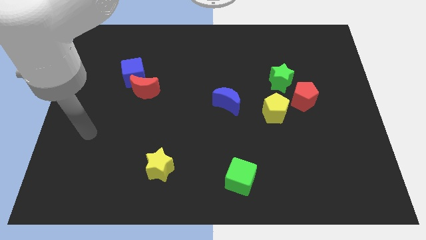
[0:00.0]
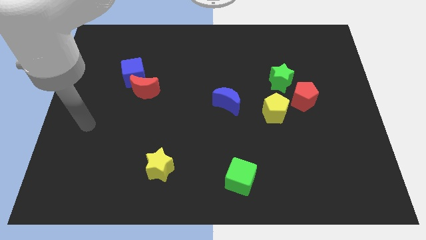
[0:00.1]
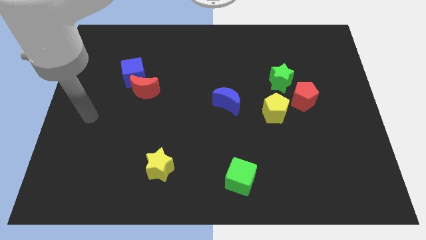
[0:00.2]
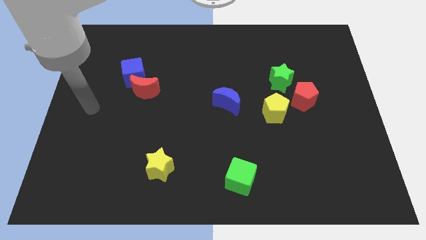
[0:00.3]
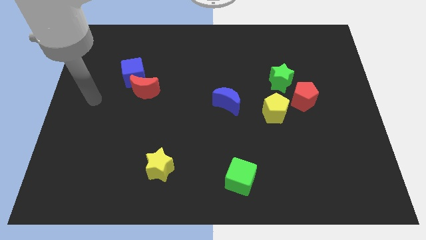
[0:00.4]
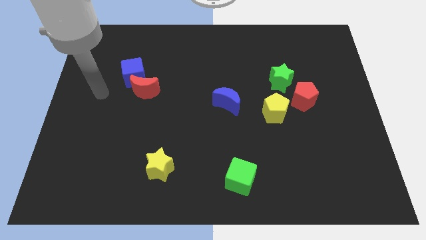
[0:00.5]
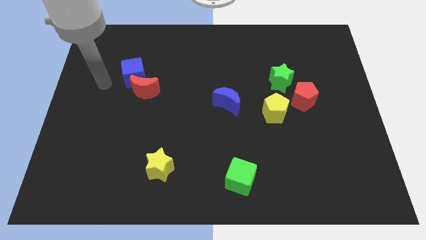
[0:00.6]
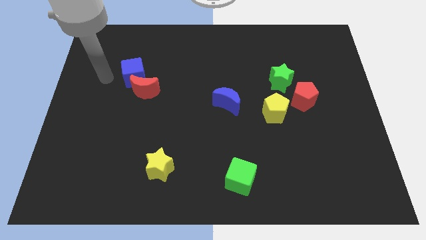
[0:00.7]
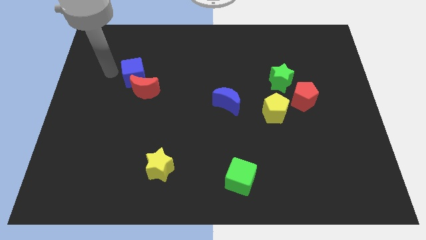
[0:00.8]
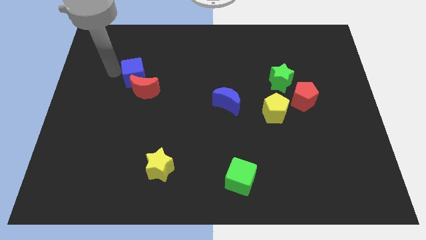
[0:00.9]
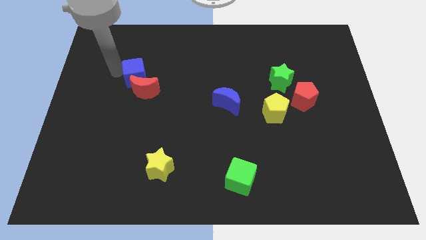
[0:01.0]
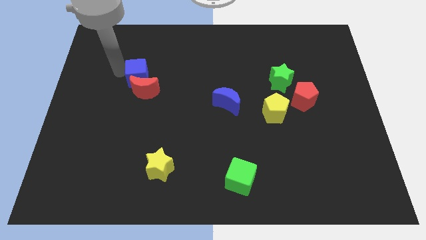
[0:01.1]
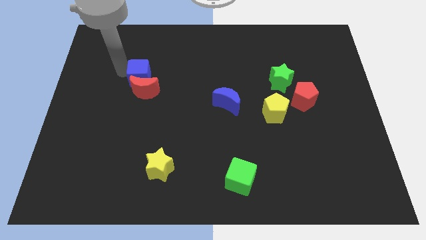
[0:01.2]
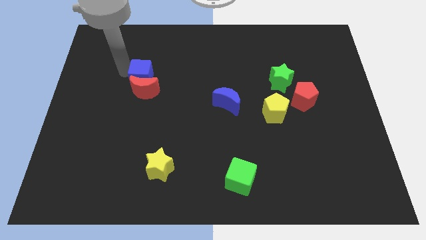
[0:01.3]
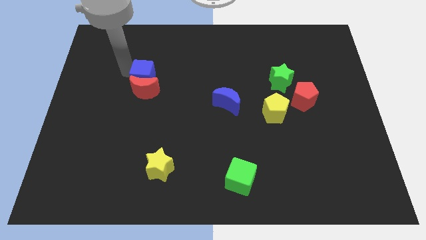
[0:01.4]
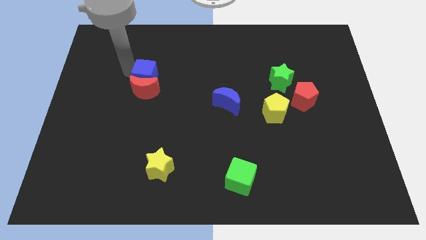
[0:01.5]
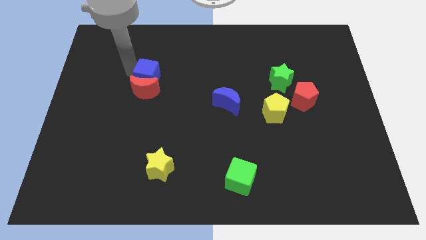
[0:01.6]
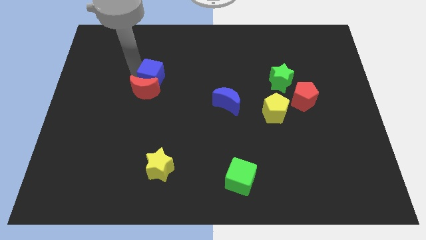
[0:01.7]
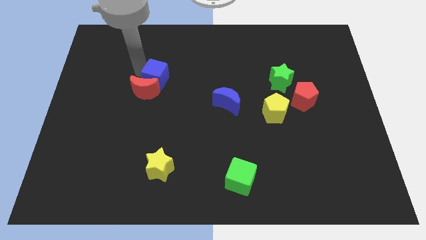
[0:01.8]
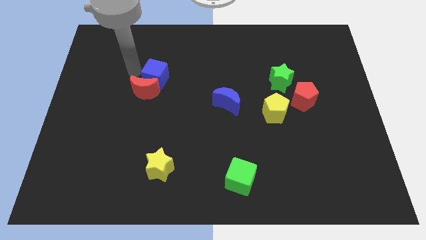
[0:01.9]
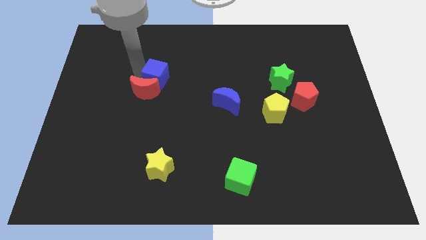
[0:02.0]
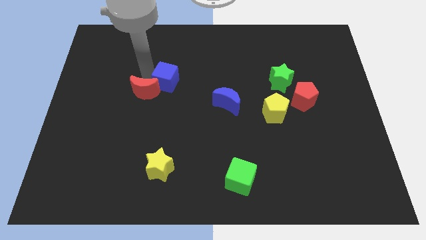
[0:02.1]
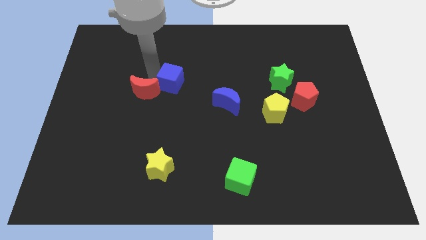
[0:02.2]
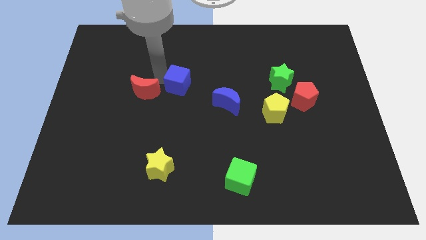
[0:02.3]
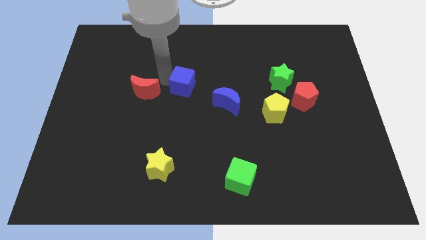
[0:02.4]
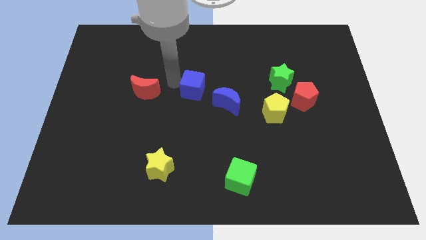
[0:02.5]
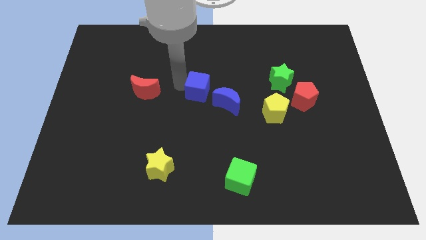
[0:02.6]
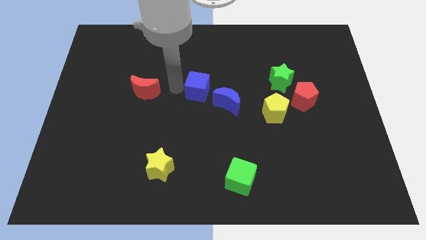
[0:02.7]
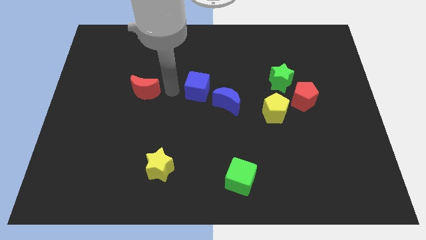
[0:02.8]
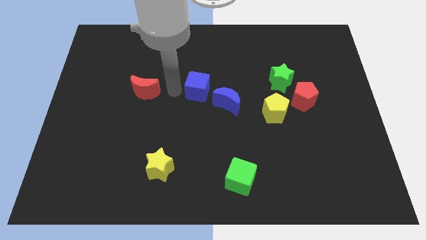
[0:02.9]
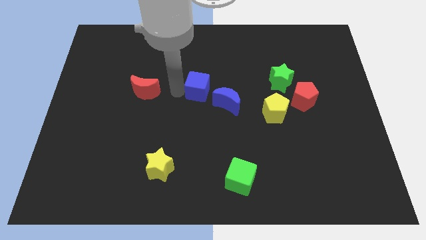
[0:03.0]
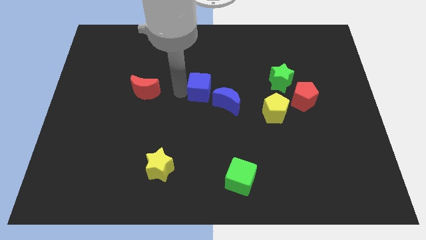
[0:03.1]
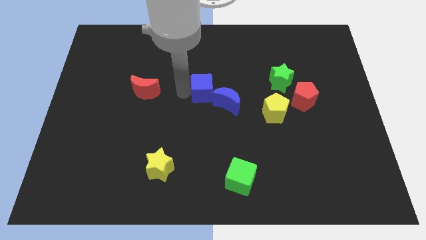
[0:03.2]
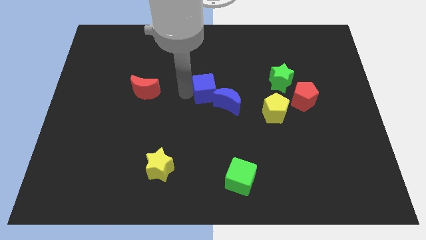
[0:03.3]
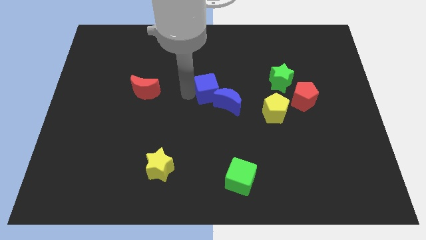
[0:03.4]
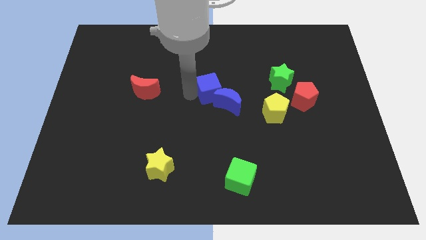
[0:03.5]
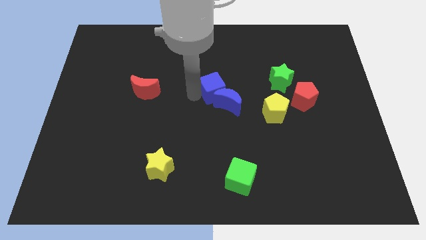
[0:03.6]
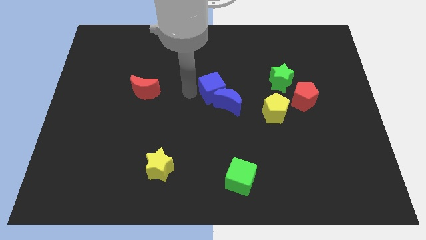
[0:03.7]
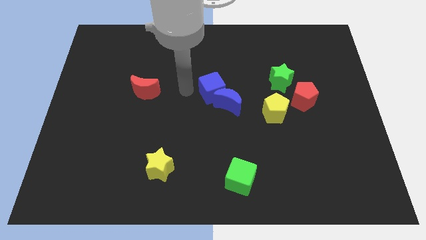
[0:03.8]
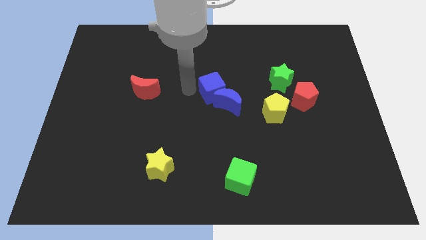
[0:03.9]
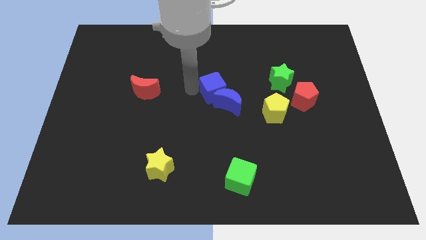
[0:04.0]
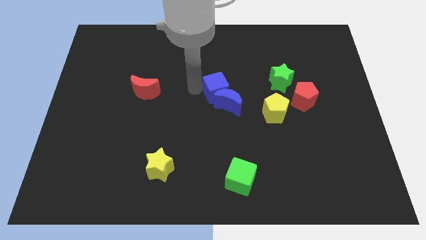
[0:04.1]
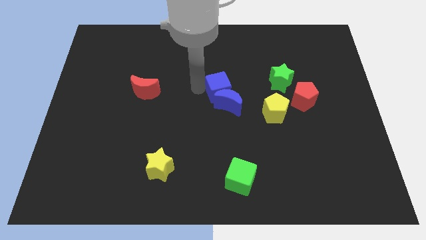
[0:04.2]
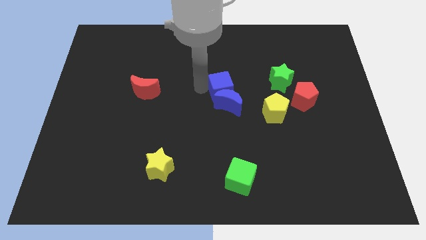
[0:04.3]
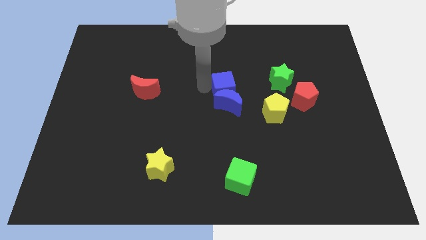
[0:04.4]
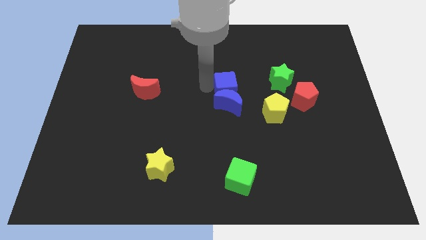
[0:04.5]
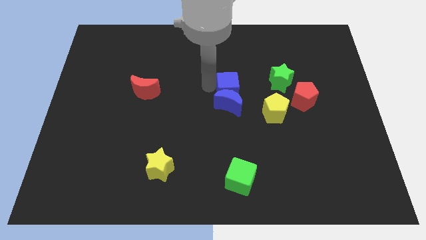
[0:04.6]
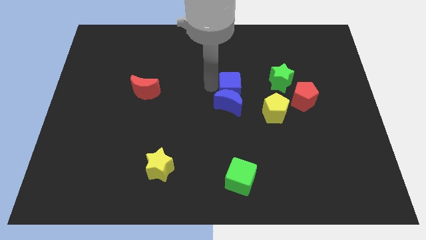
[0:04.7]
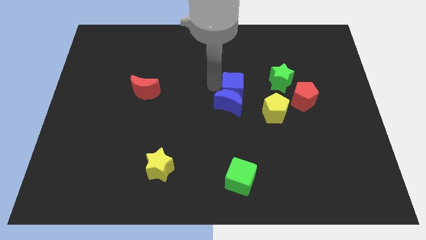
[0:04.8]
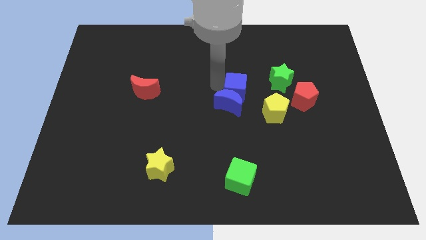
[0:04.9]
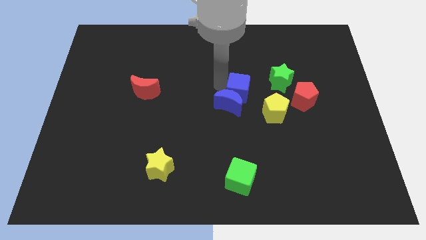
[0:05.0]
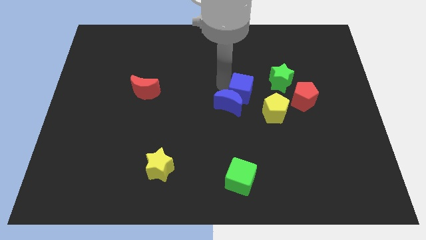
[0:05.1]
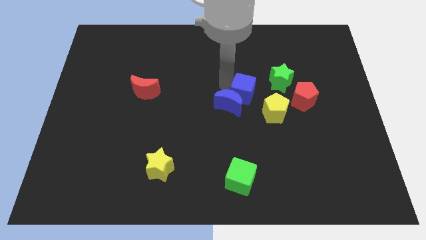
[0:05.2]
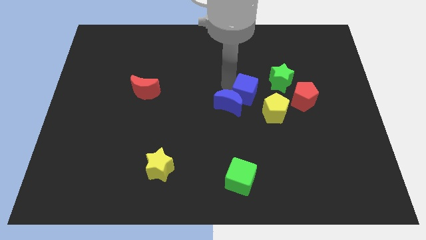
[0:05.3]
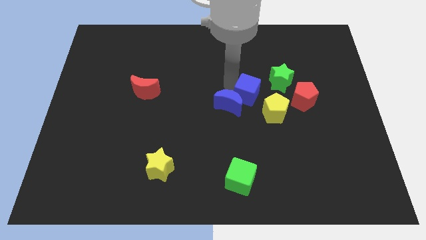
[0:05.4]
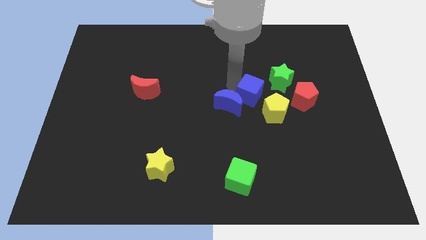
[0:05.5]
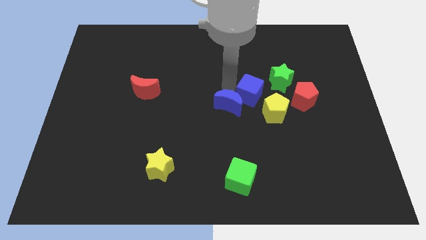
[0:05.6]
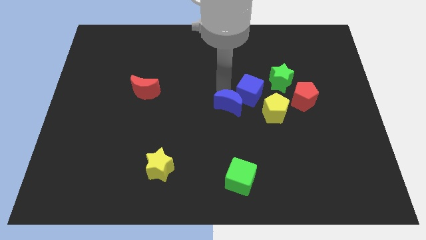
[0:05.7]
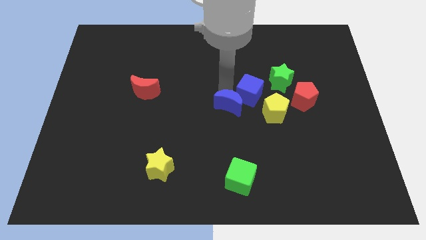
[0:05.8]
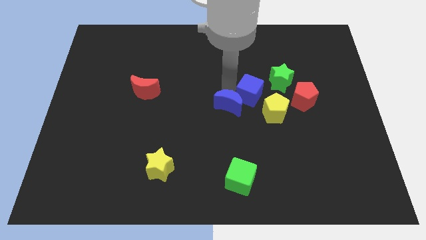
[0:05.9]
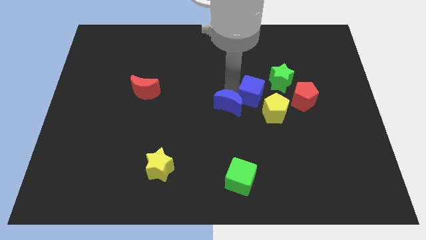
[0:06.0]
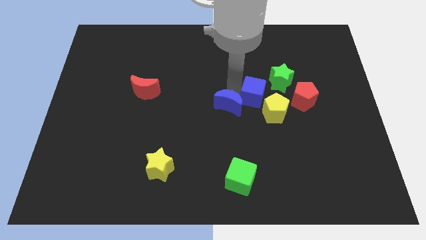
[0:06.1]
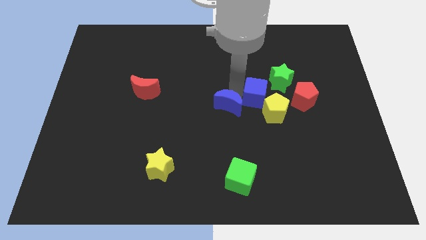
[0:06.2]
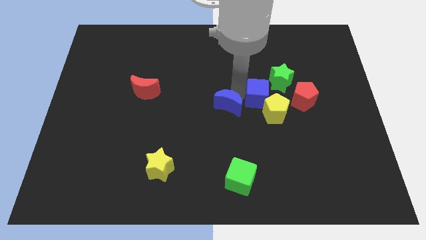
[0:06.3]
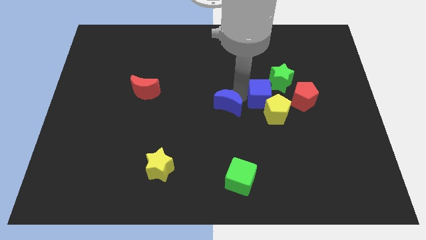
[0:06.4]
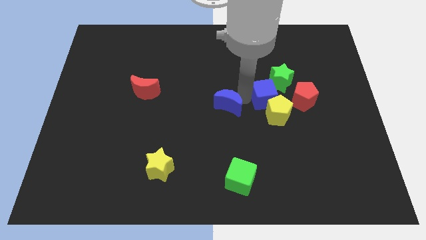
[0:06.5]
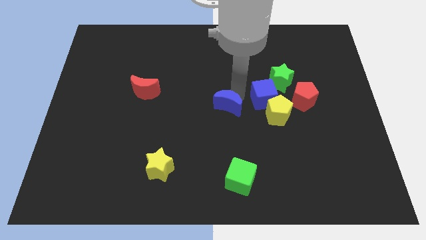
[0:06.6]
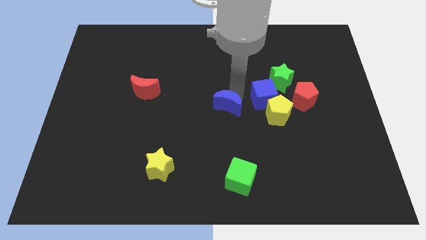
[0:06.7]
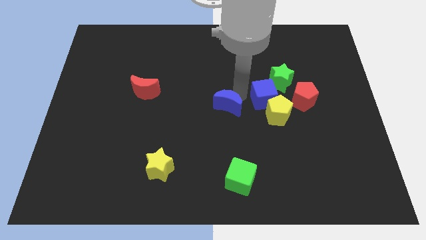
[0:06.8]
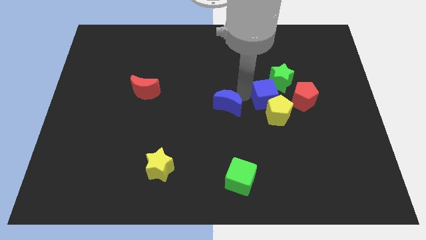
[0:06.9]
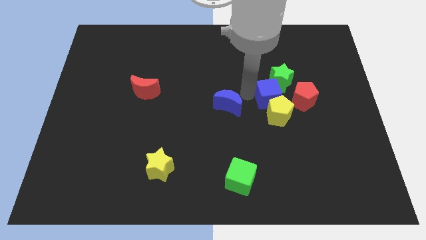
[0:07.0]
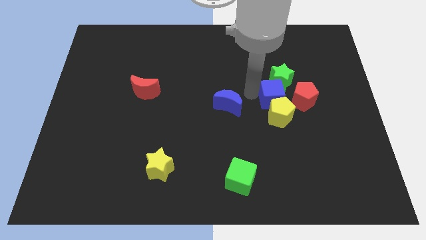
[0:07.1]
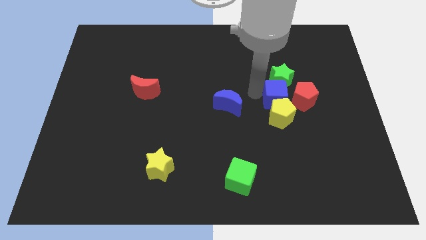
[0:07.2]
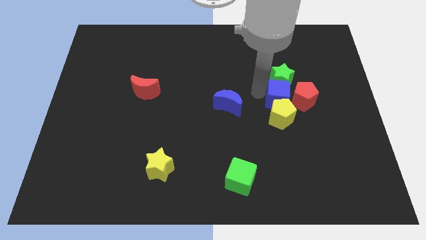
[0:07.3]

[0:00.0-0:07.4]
move the blue cube next to the red pentagon
